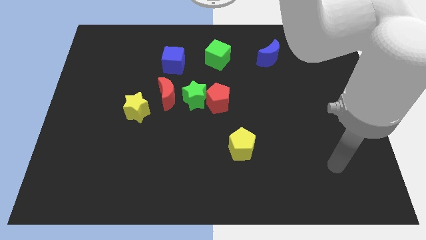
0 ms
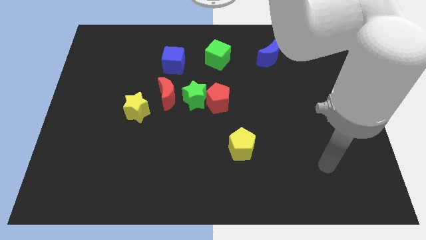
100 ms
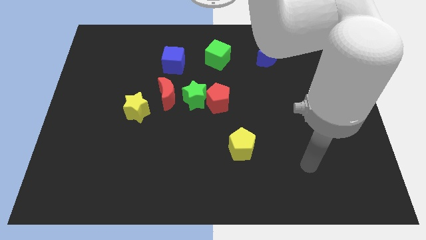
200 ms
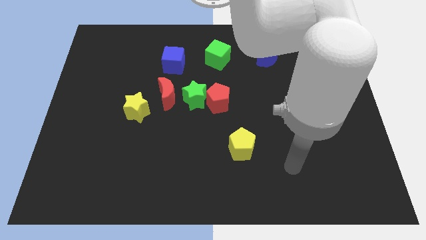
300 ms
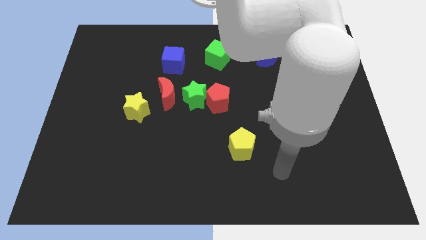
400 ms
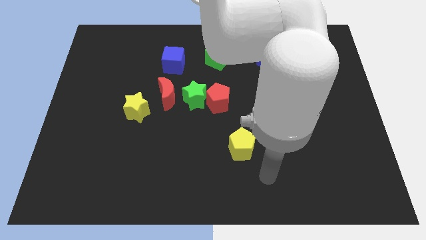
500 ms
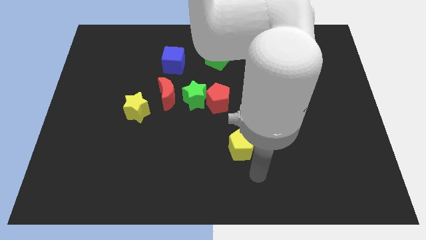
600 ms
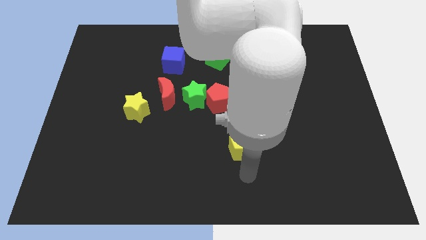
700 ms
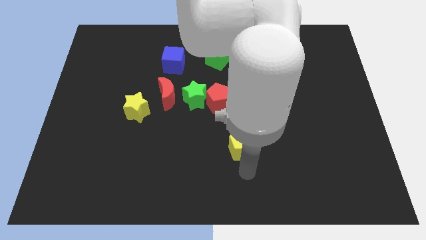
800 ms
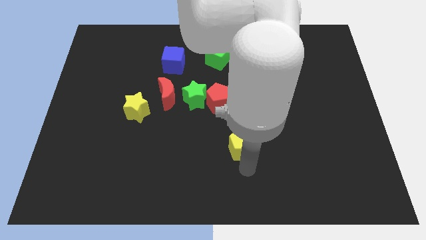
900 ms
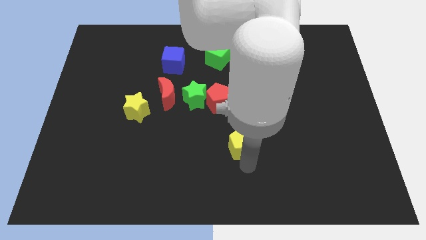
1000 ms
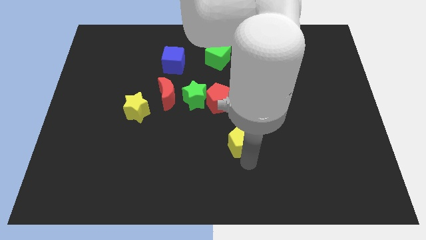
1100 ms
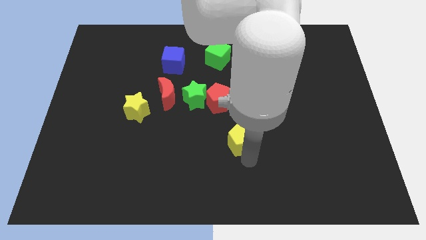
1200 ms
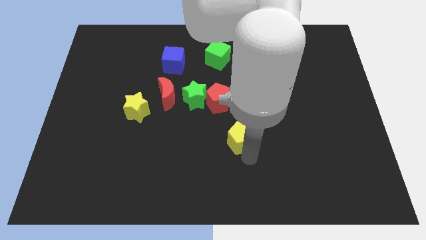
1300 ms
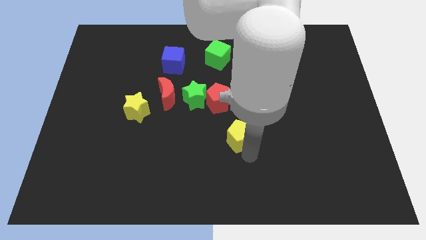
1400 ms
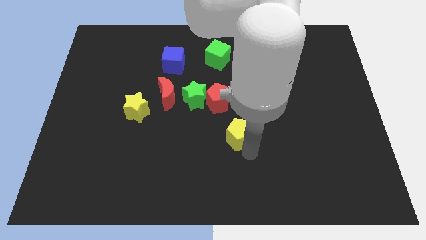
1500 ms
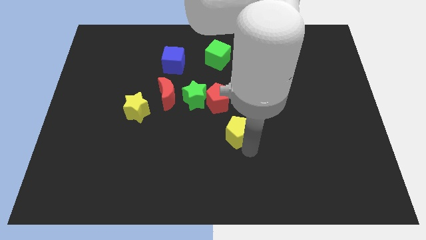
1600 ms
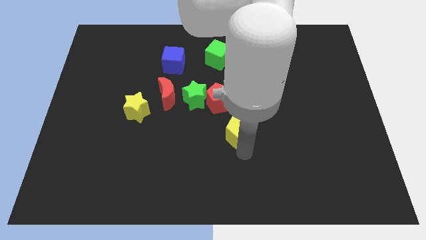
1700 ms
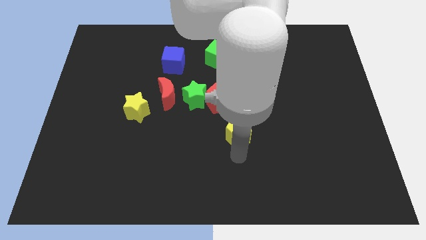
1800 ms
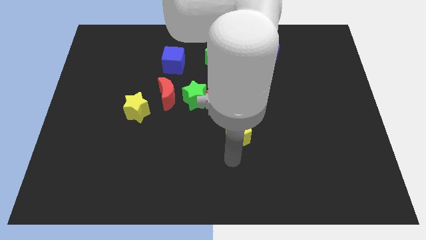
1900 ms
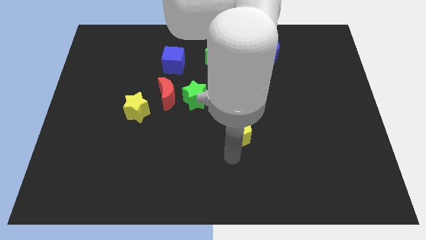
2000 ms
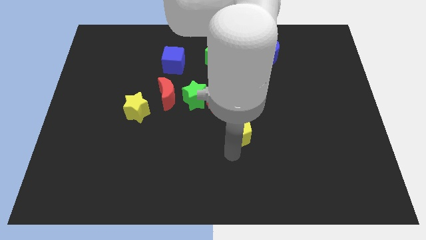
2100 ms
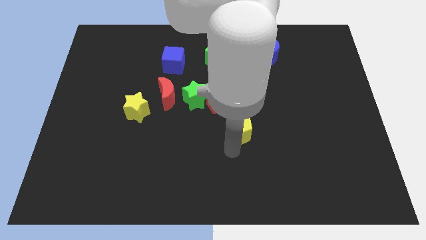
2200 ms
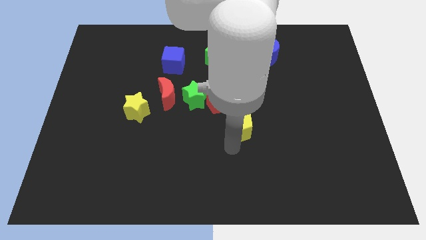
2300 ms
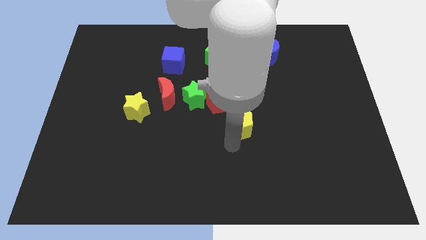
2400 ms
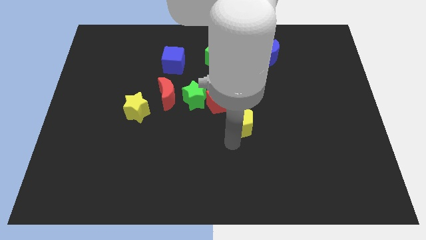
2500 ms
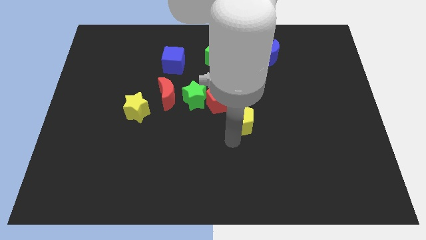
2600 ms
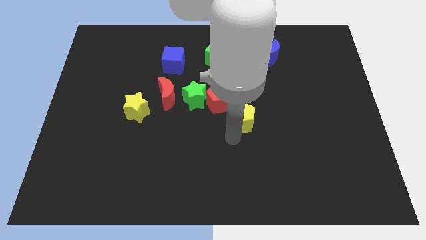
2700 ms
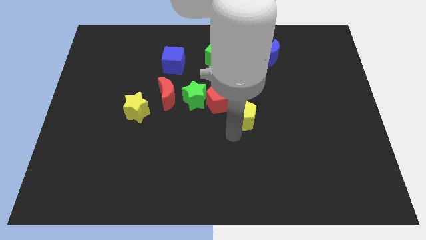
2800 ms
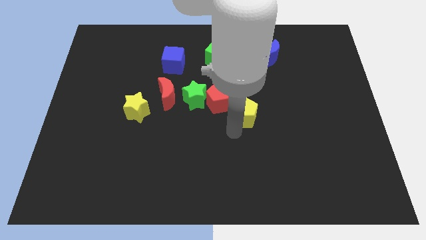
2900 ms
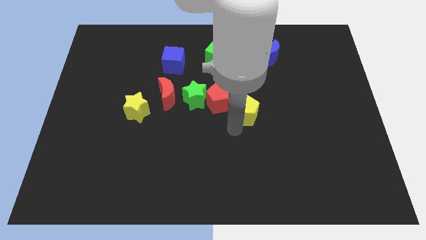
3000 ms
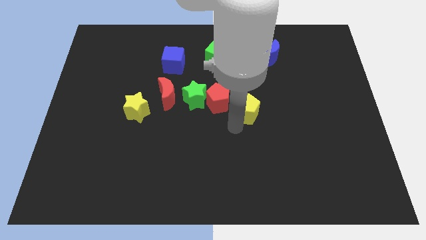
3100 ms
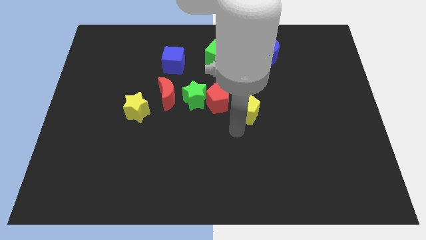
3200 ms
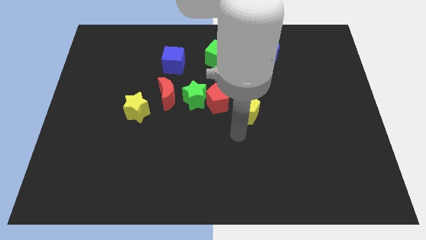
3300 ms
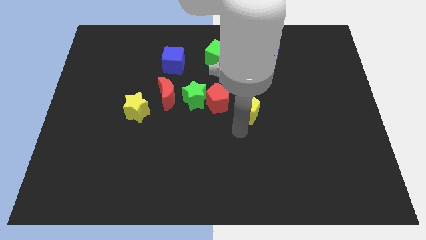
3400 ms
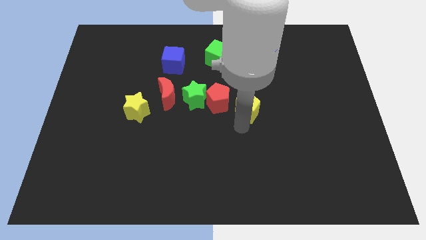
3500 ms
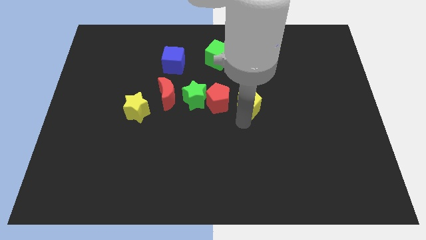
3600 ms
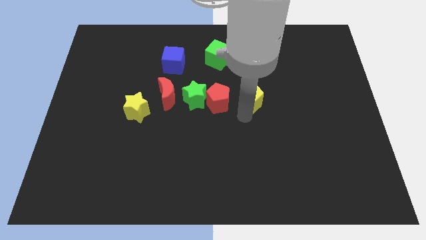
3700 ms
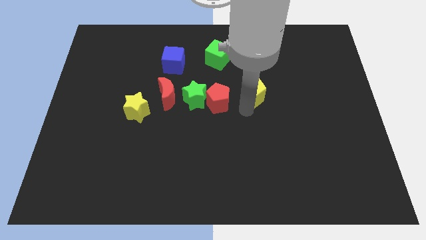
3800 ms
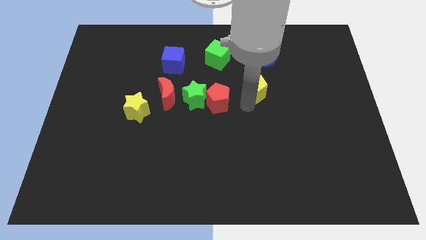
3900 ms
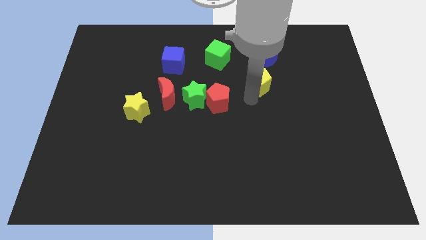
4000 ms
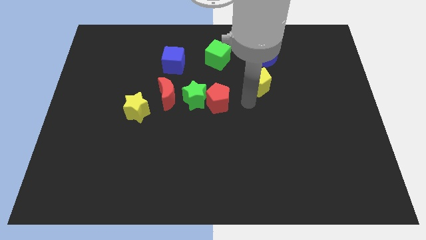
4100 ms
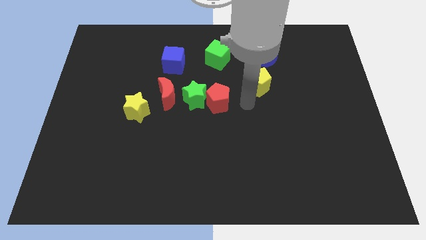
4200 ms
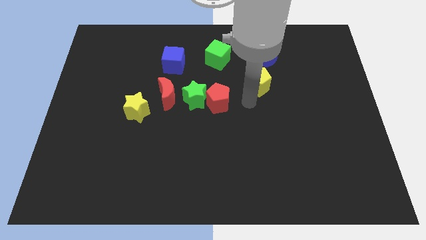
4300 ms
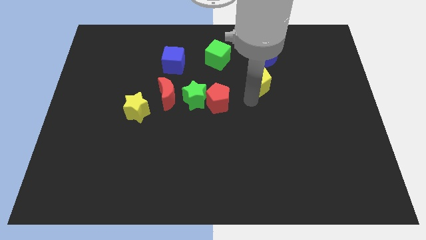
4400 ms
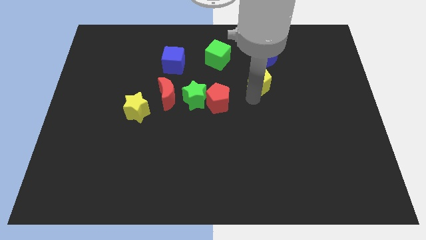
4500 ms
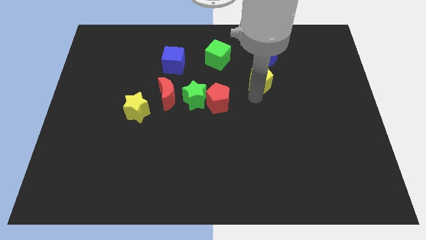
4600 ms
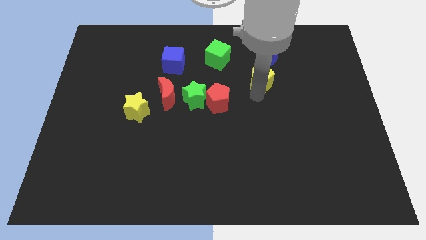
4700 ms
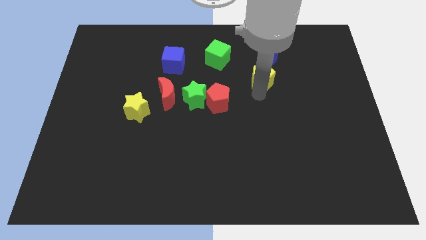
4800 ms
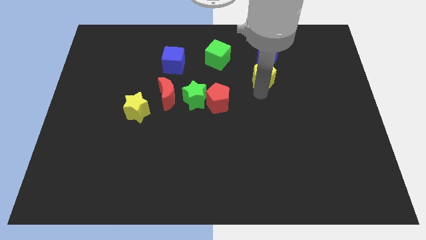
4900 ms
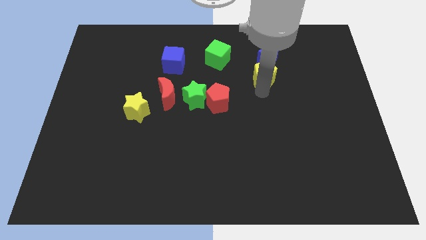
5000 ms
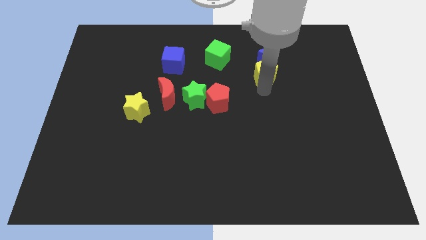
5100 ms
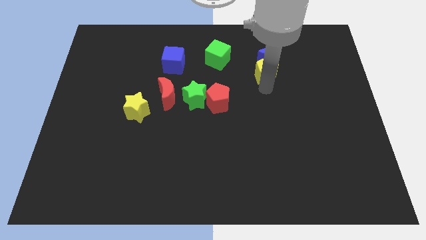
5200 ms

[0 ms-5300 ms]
move the yellow pentagon towards the blue moon

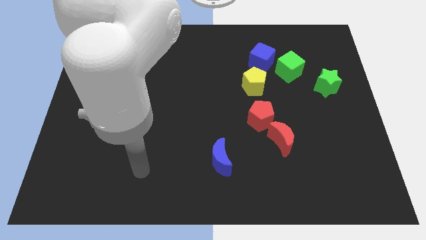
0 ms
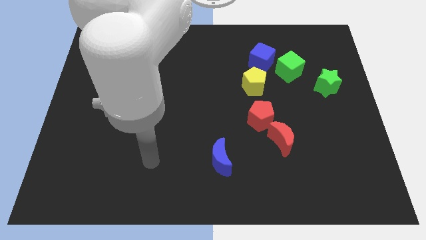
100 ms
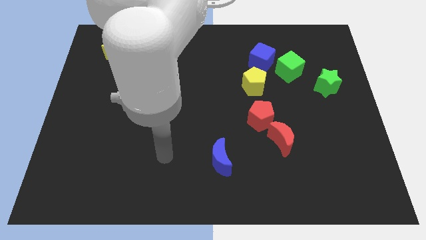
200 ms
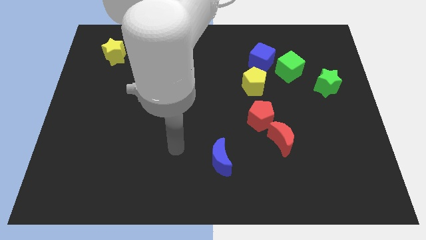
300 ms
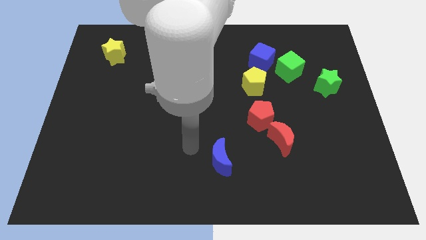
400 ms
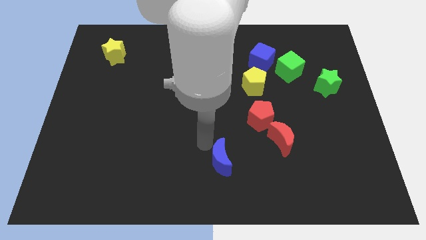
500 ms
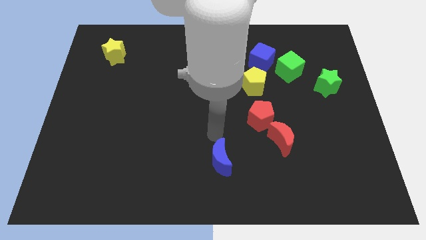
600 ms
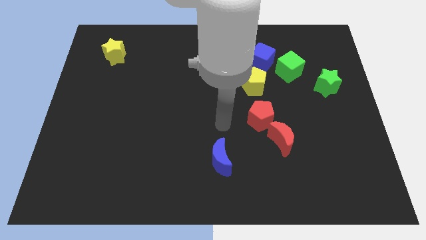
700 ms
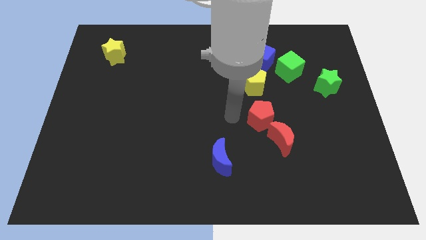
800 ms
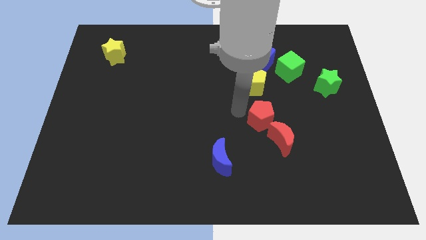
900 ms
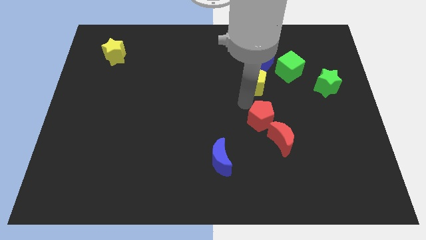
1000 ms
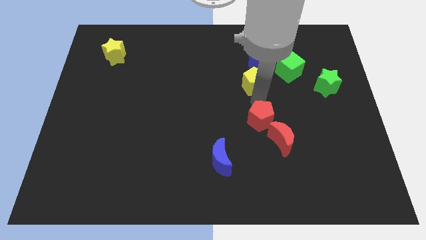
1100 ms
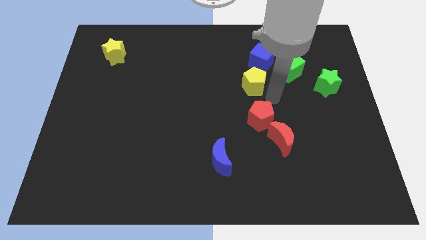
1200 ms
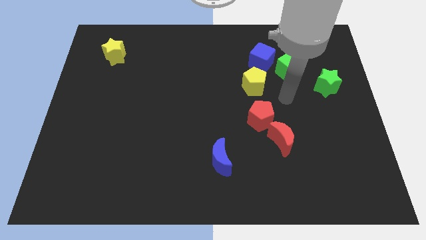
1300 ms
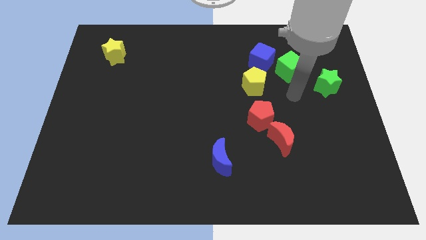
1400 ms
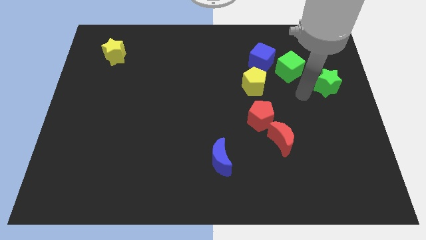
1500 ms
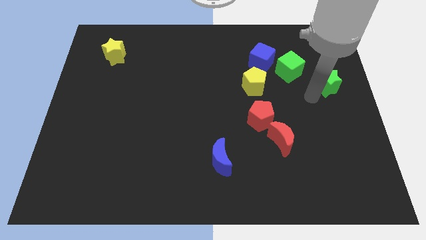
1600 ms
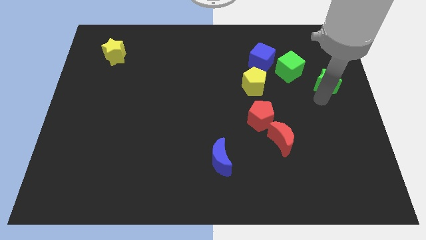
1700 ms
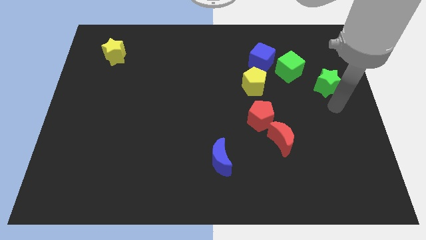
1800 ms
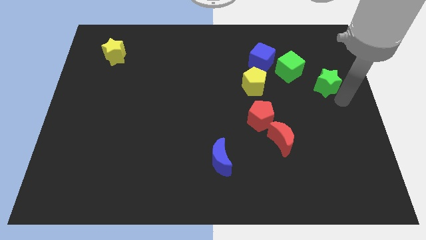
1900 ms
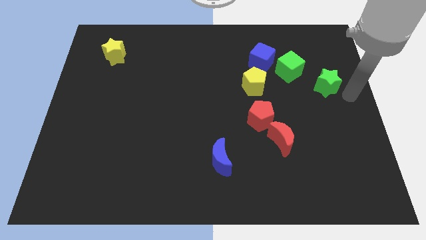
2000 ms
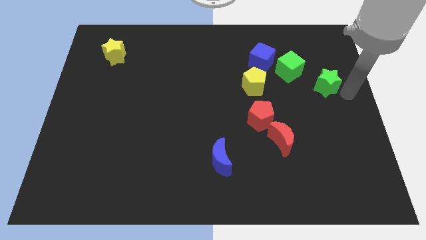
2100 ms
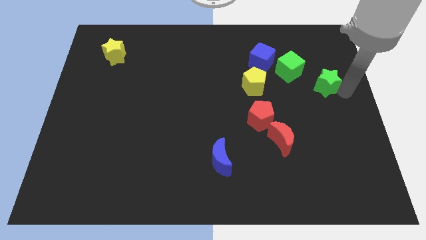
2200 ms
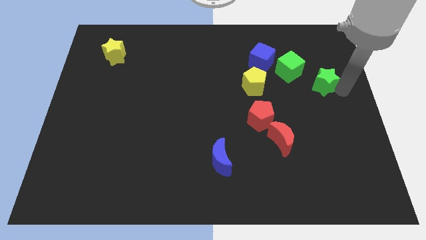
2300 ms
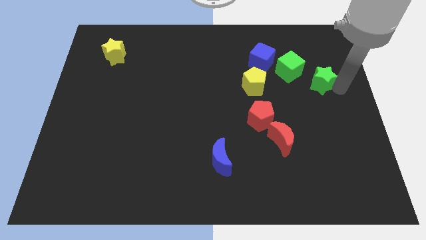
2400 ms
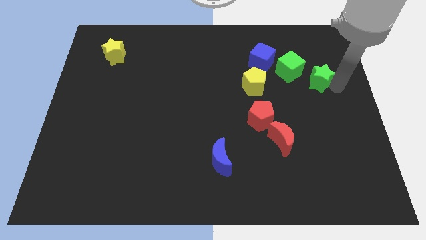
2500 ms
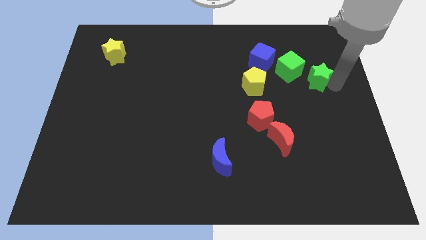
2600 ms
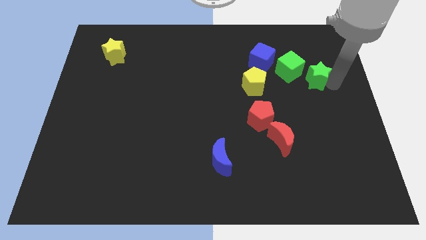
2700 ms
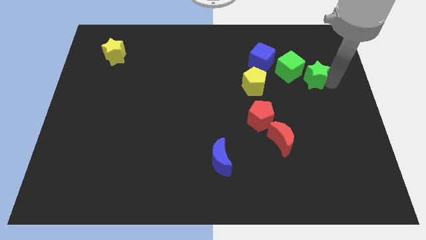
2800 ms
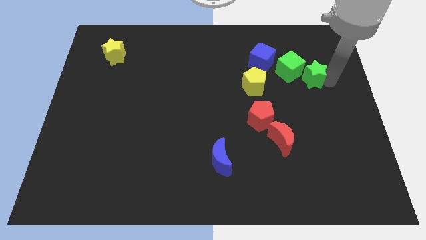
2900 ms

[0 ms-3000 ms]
put the green star towards the green cube
